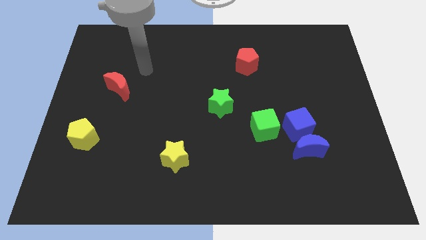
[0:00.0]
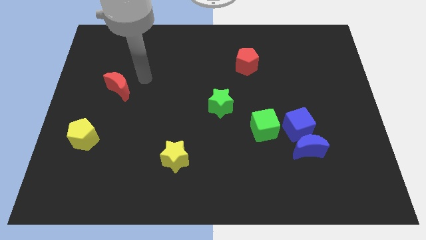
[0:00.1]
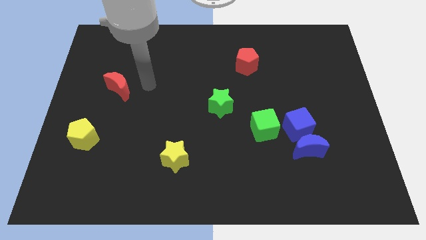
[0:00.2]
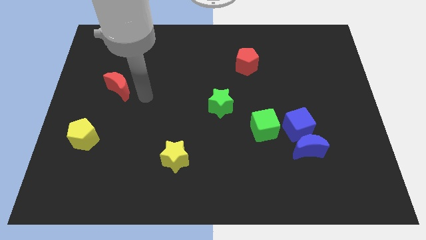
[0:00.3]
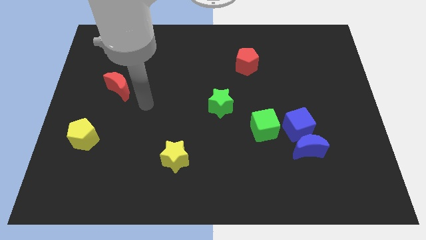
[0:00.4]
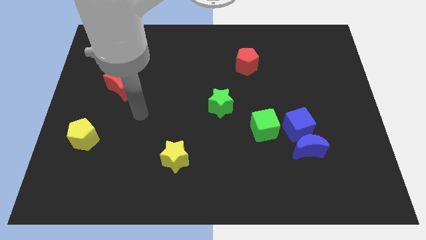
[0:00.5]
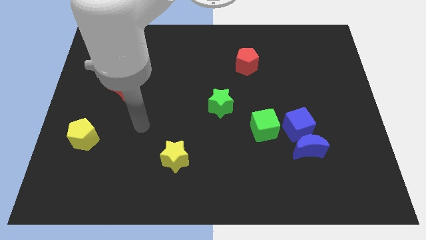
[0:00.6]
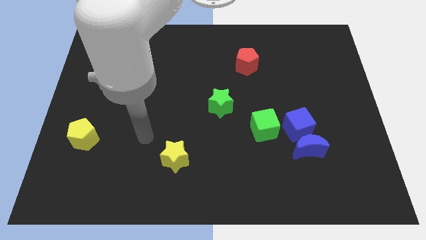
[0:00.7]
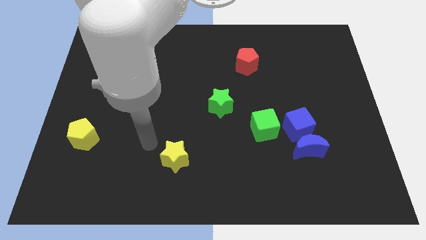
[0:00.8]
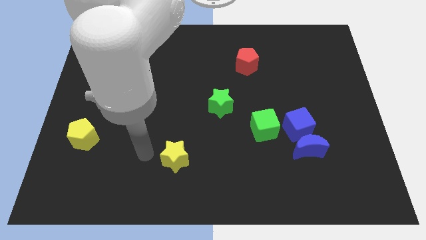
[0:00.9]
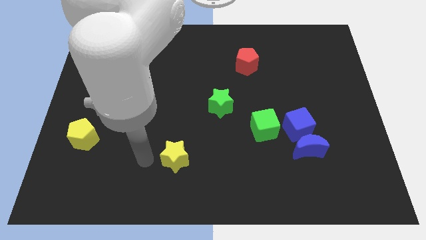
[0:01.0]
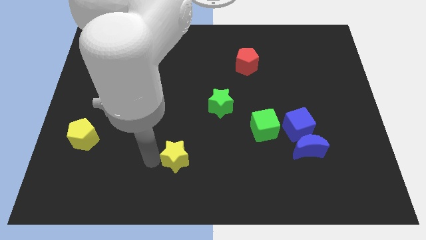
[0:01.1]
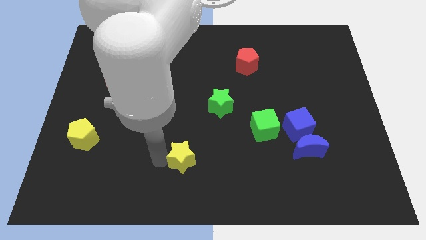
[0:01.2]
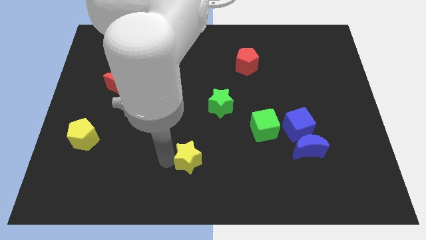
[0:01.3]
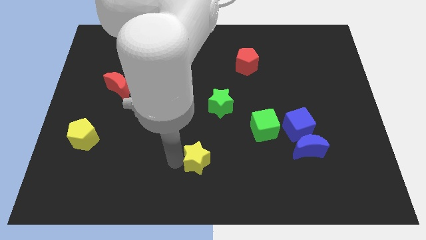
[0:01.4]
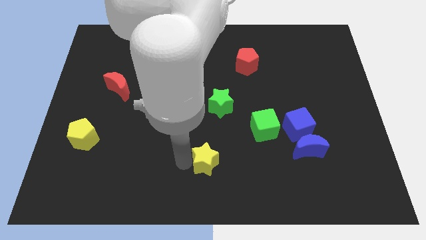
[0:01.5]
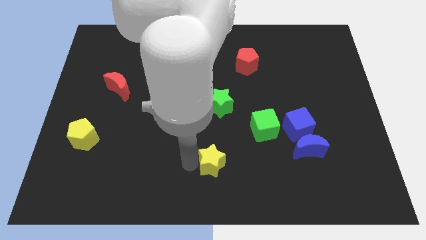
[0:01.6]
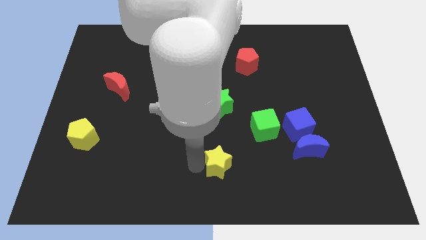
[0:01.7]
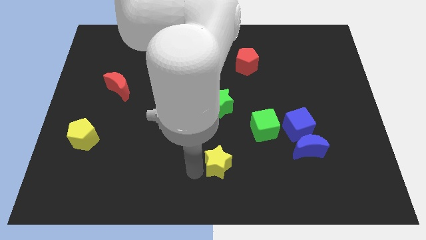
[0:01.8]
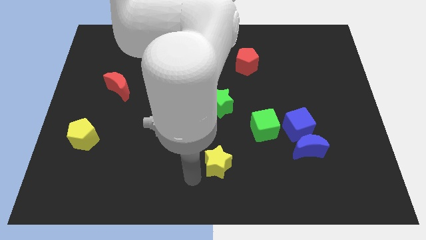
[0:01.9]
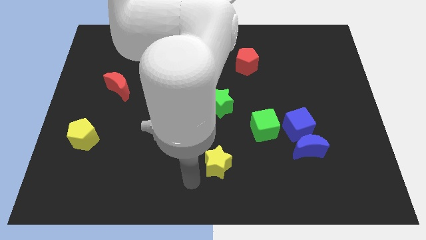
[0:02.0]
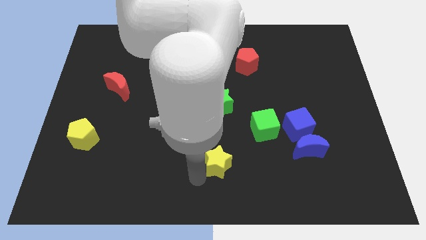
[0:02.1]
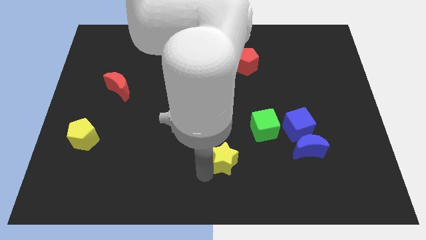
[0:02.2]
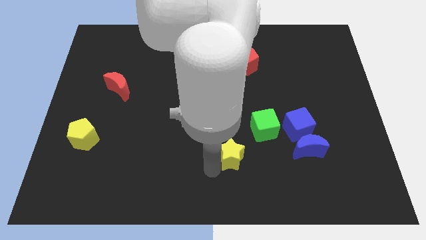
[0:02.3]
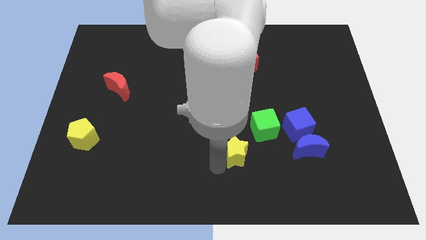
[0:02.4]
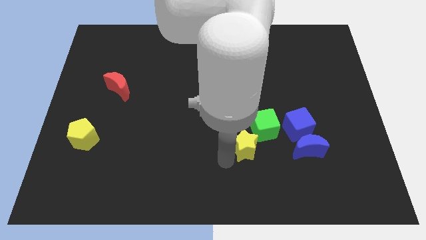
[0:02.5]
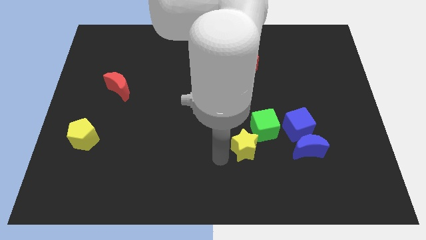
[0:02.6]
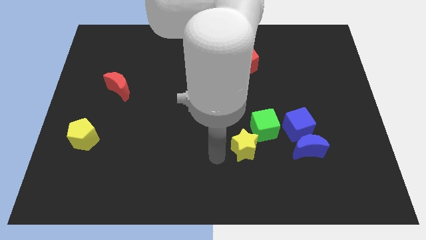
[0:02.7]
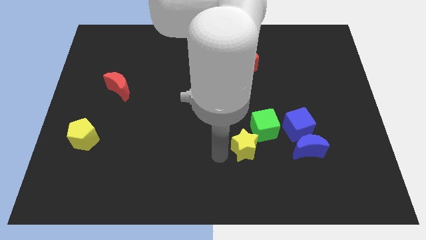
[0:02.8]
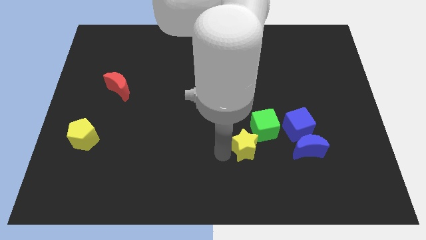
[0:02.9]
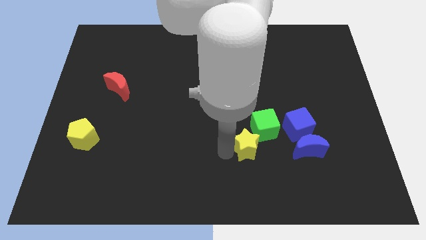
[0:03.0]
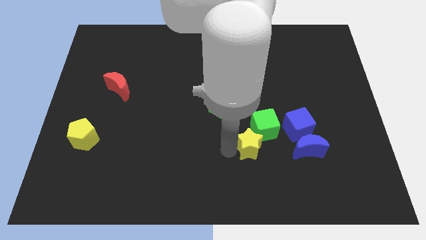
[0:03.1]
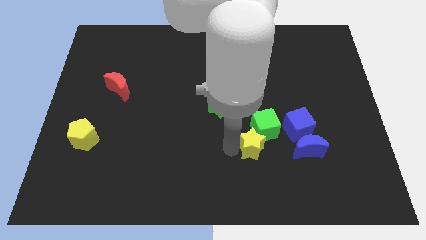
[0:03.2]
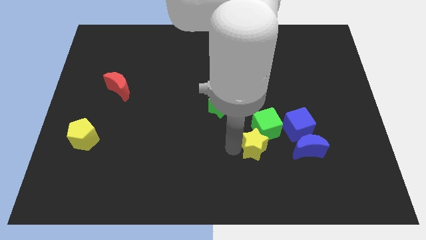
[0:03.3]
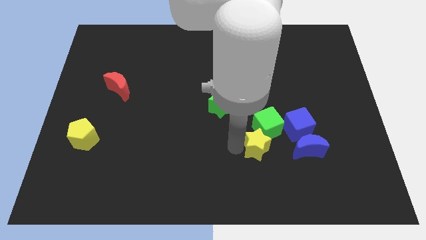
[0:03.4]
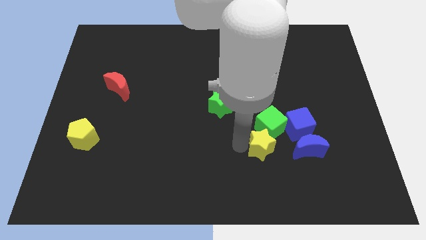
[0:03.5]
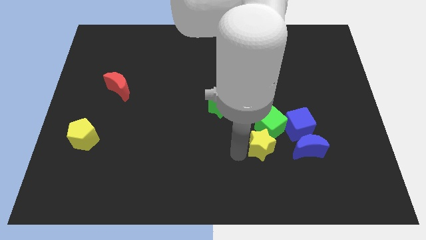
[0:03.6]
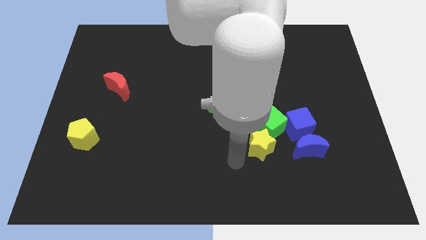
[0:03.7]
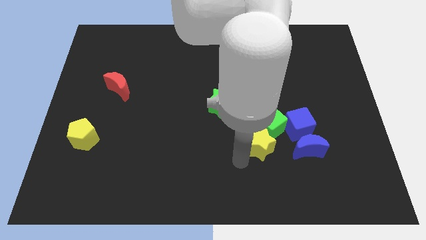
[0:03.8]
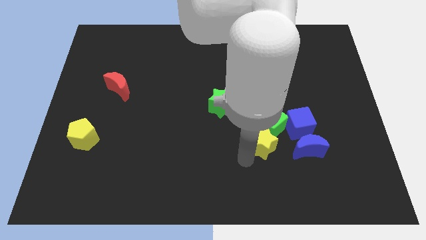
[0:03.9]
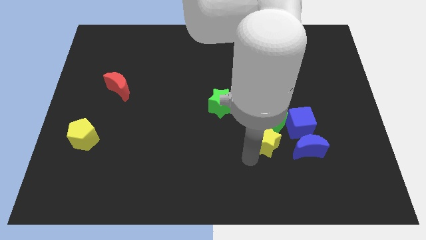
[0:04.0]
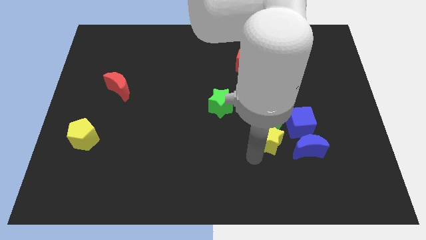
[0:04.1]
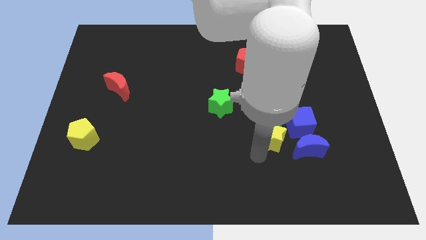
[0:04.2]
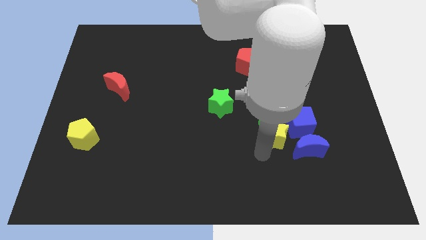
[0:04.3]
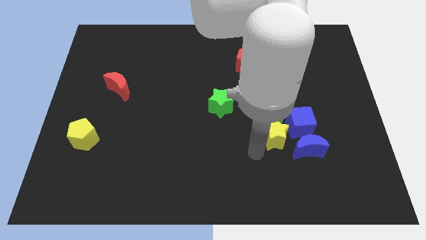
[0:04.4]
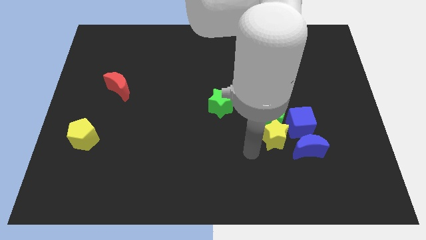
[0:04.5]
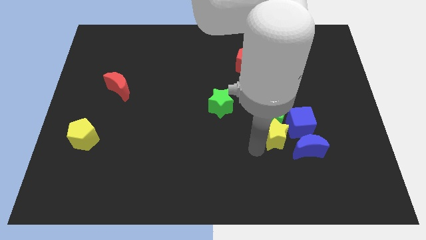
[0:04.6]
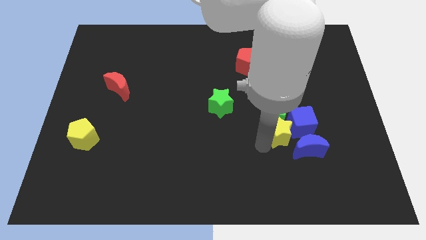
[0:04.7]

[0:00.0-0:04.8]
put the yellow star close to the blue cube
